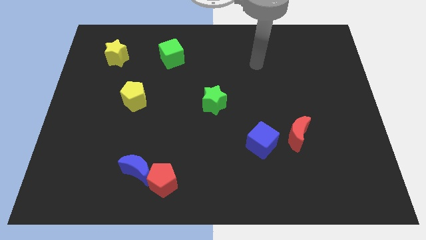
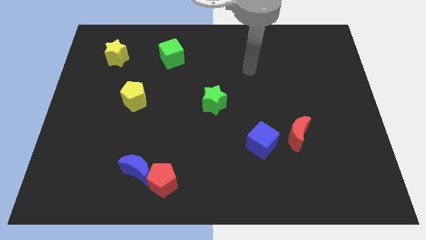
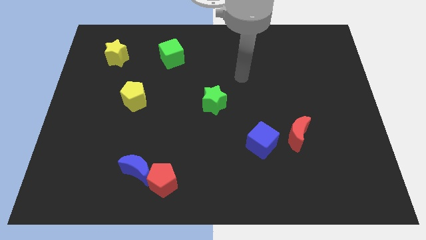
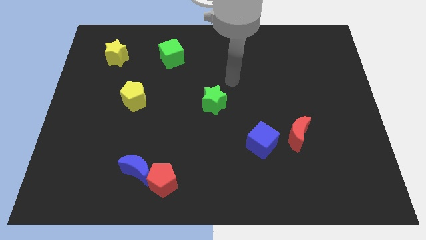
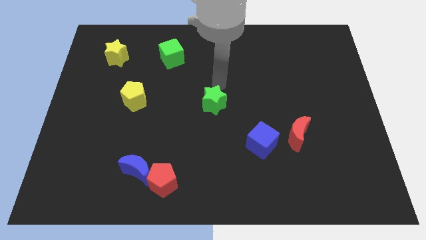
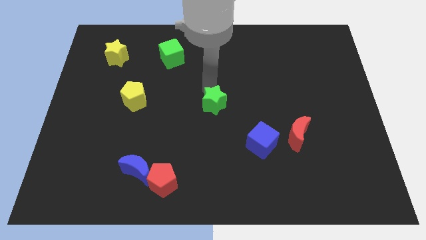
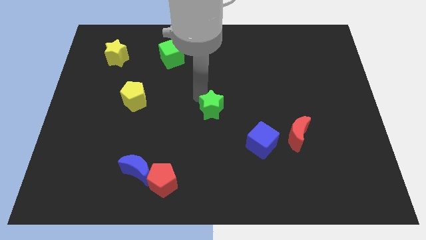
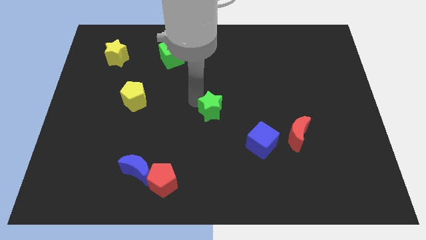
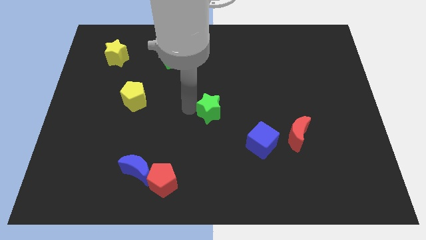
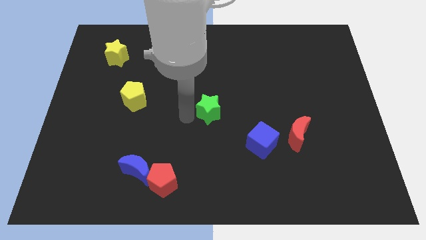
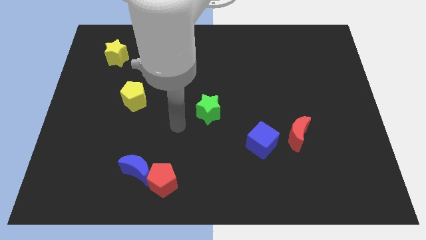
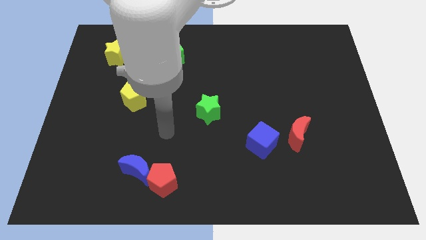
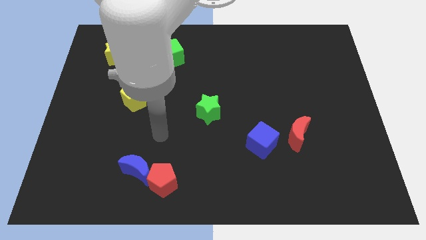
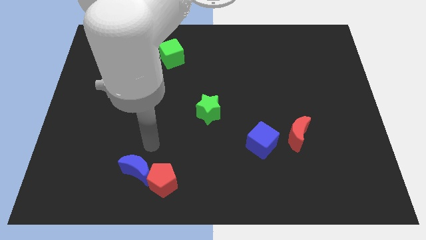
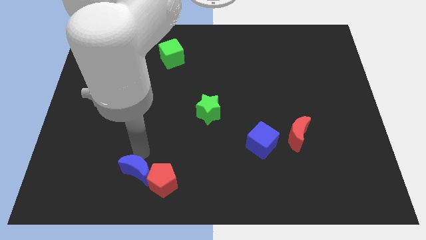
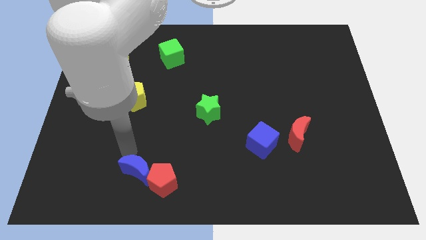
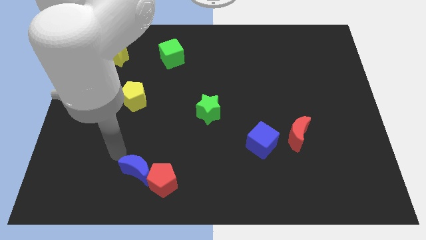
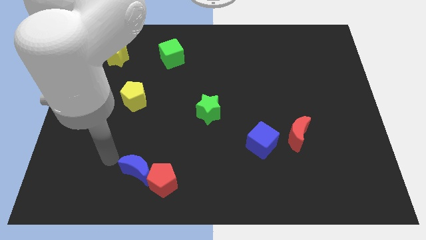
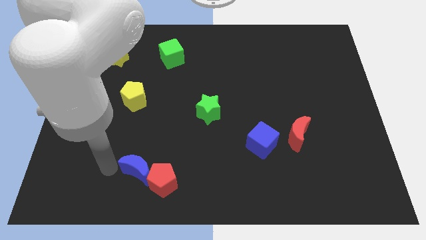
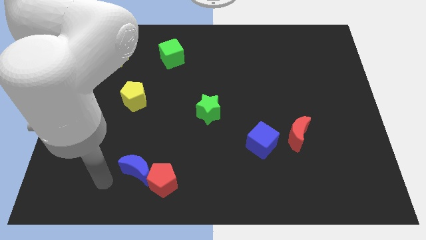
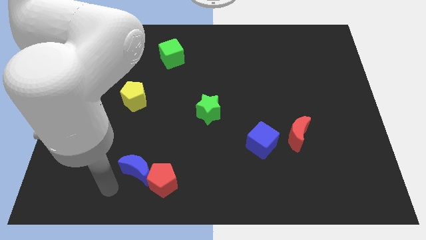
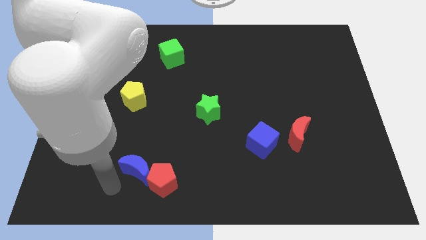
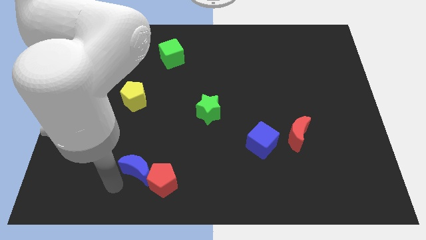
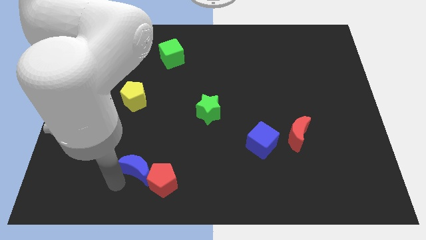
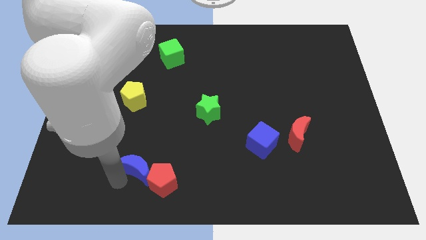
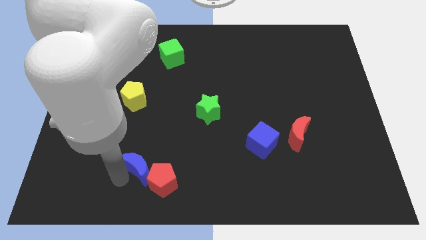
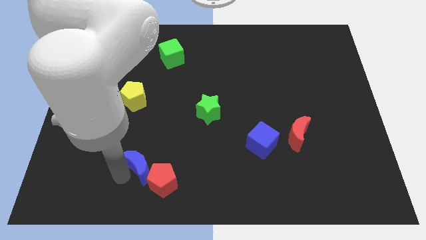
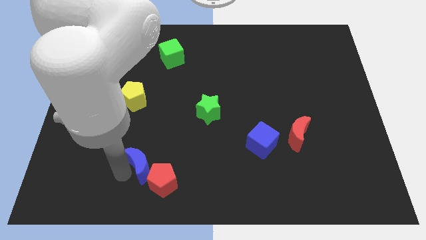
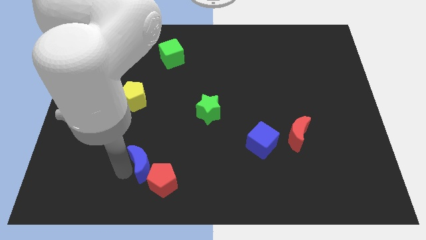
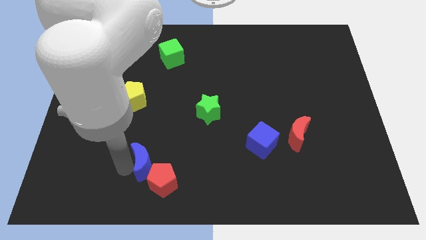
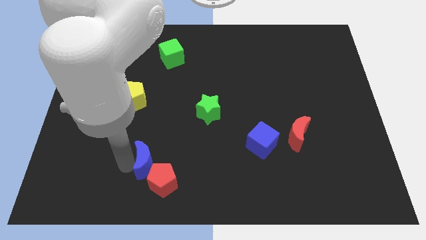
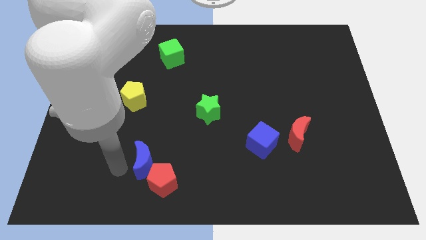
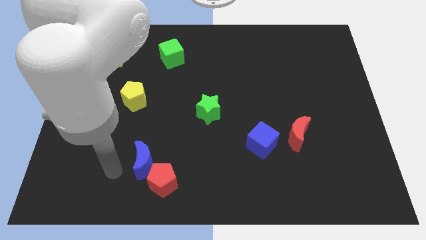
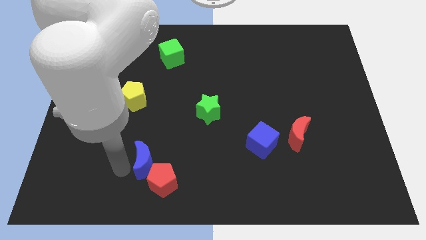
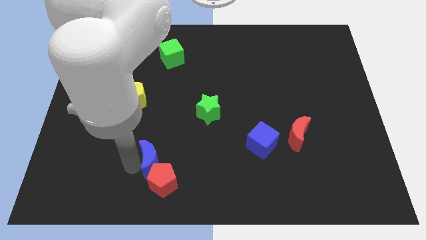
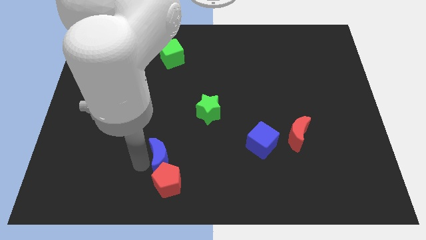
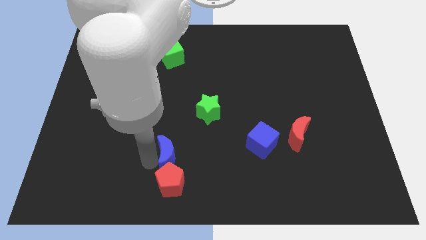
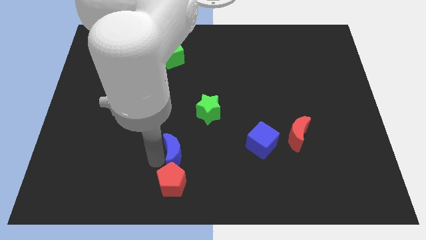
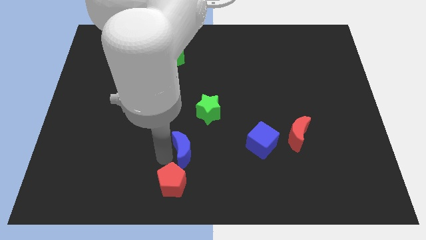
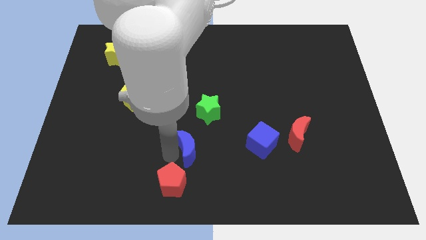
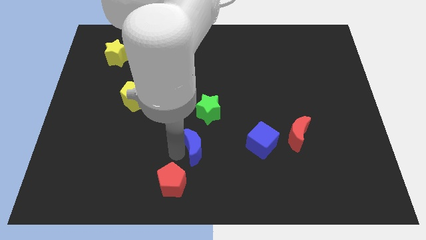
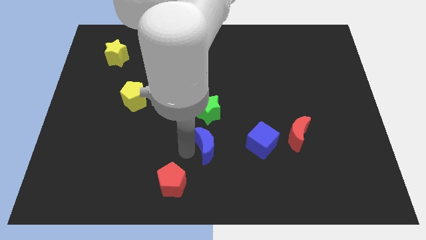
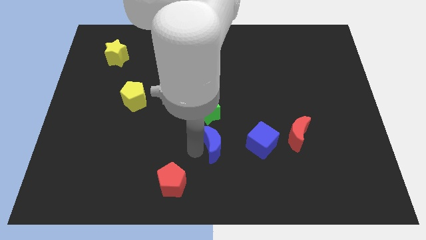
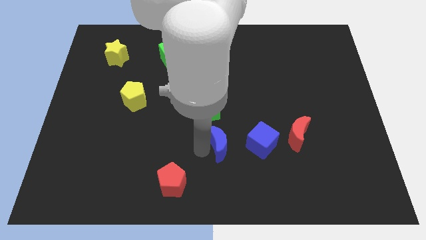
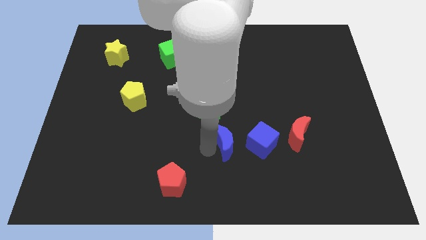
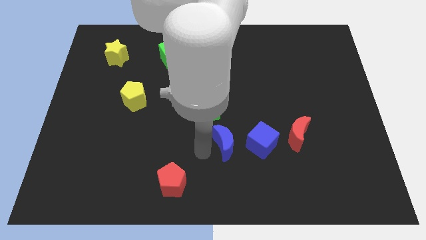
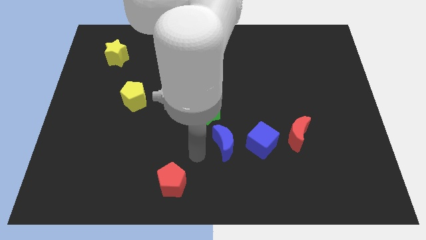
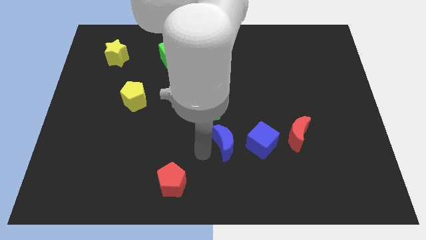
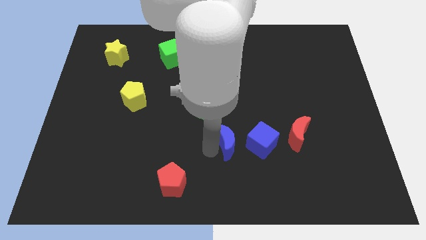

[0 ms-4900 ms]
push the blue moon just left of the red moon

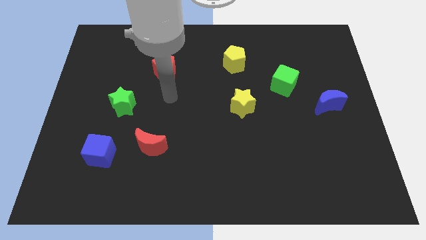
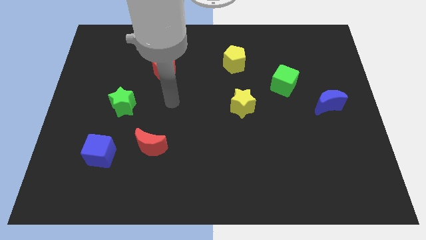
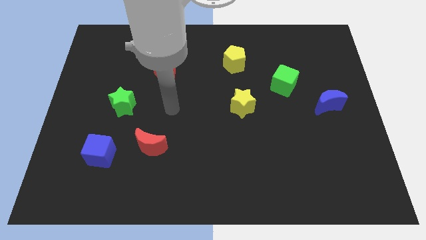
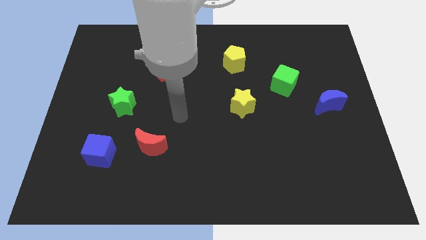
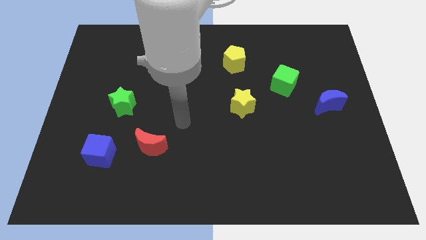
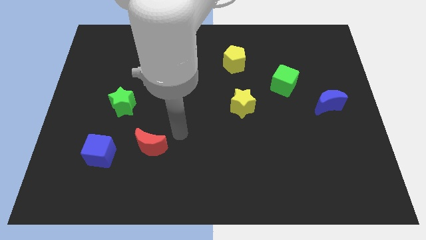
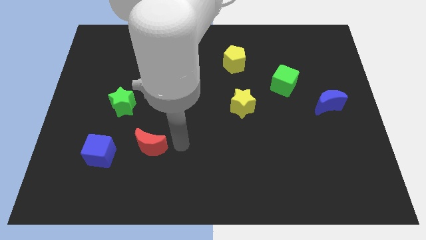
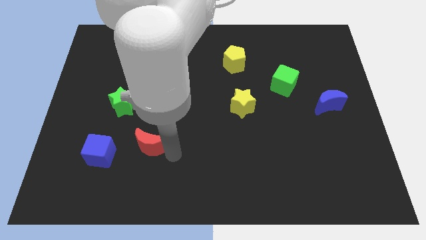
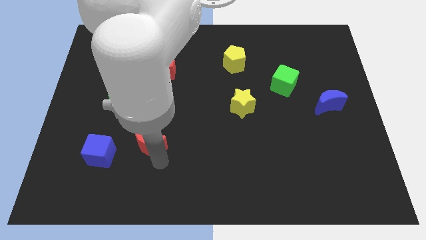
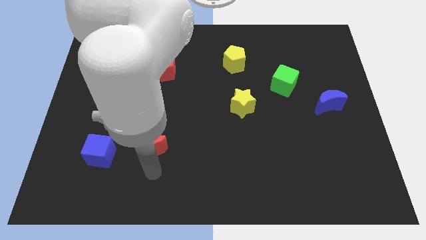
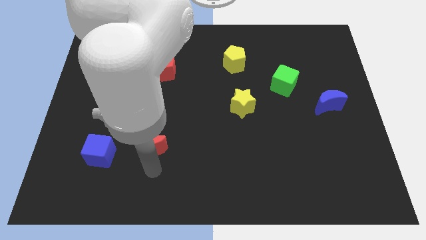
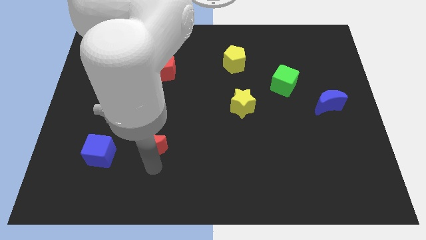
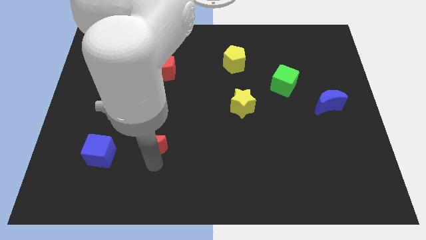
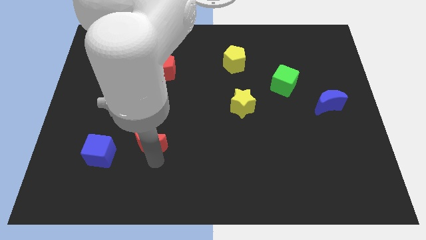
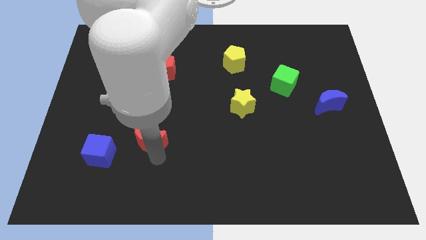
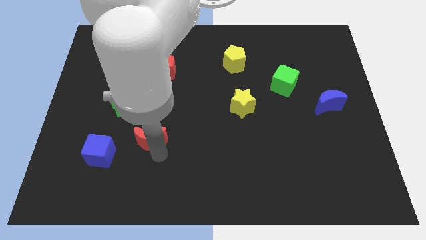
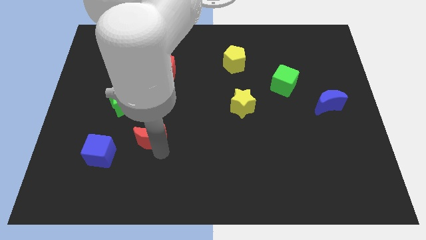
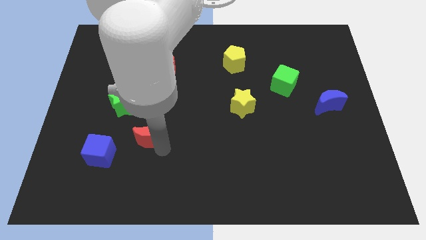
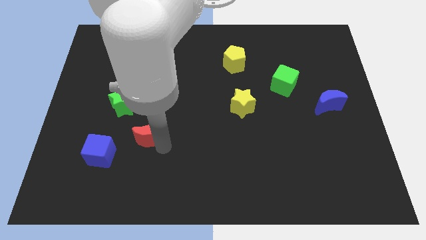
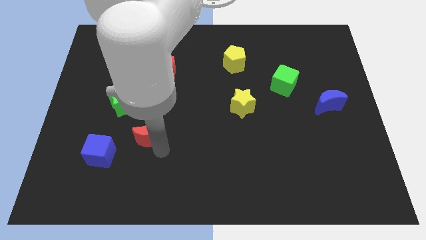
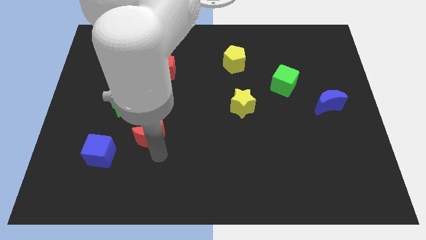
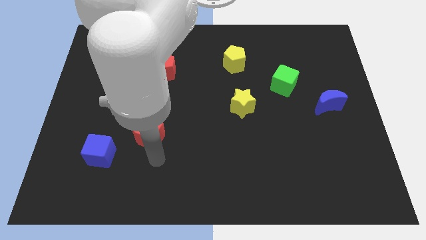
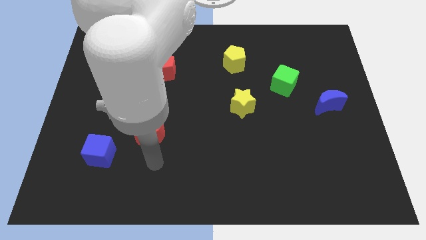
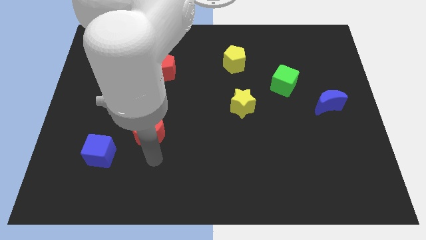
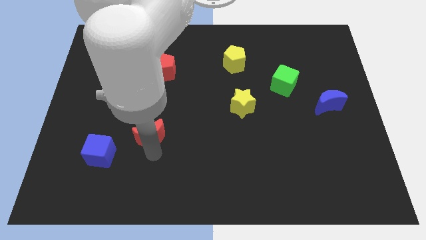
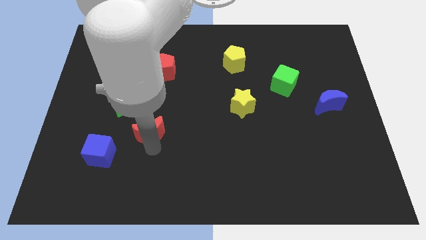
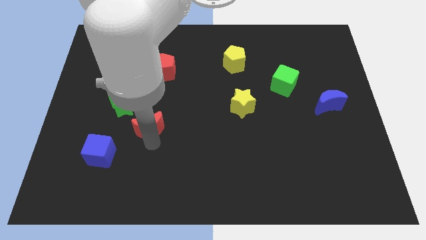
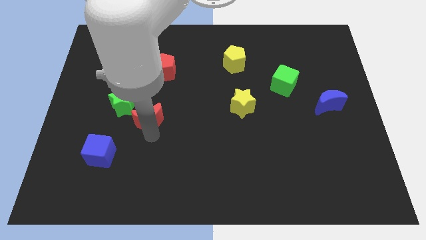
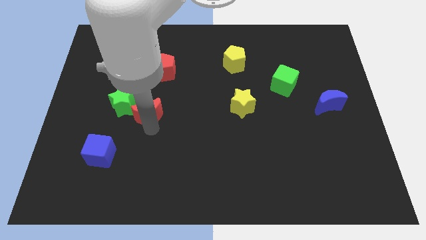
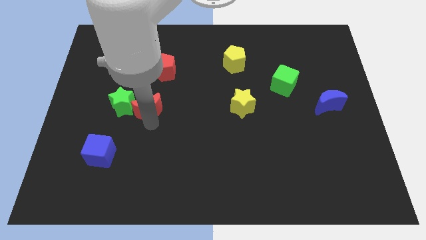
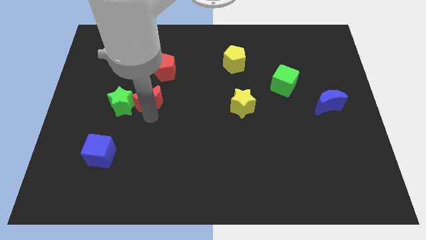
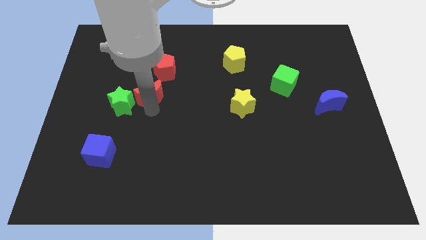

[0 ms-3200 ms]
move the red moon to the bottom left of the red pentagon
